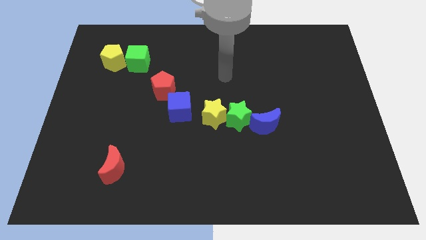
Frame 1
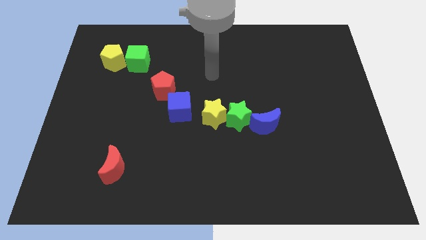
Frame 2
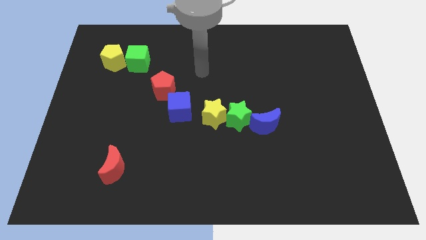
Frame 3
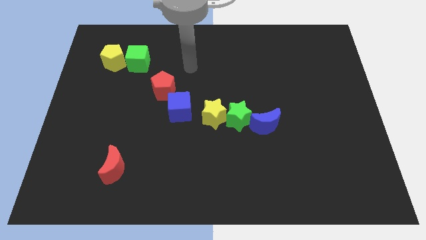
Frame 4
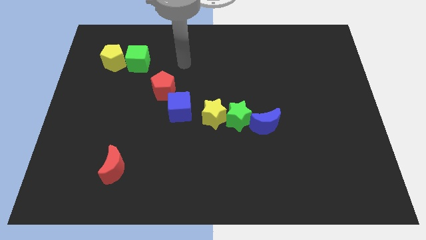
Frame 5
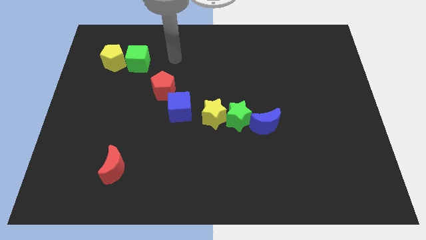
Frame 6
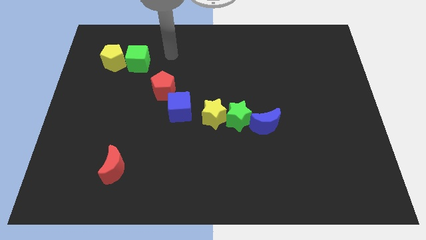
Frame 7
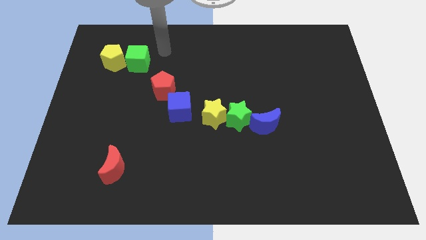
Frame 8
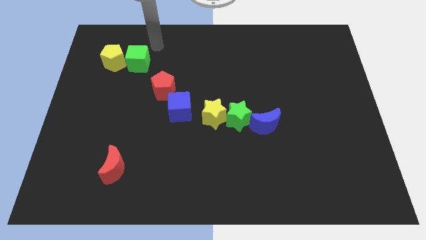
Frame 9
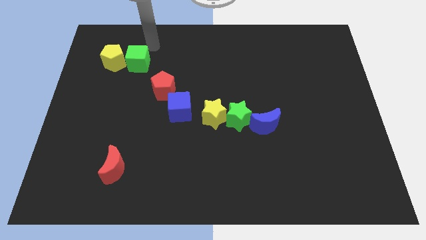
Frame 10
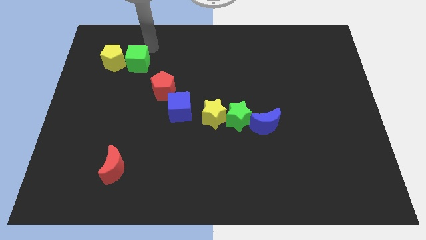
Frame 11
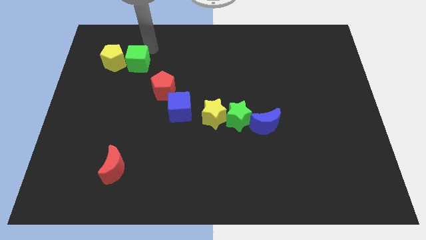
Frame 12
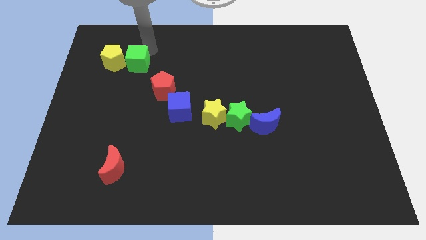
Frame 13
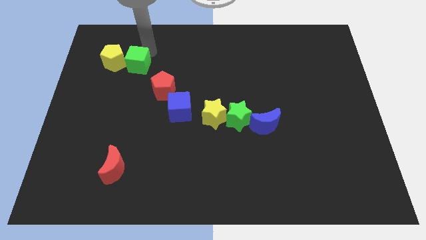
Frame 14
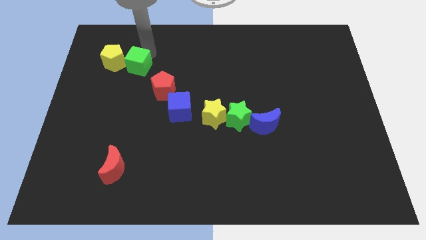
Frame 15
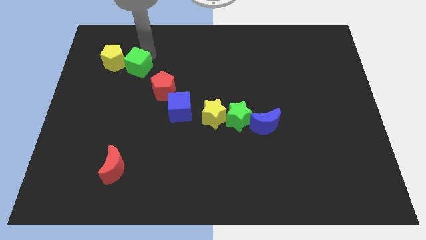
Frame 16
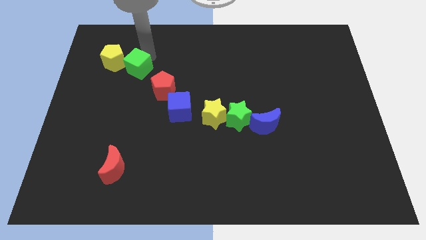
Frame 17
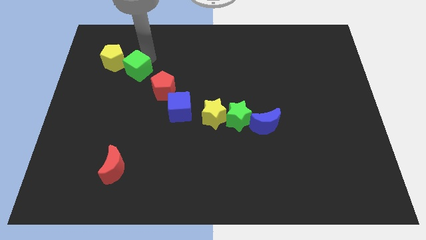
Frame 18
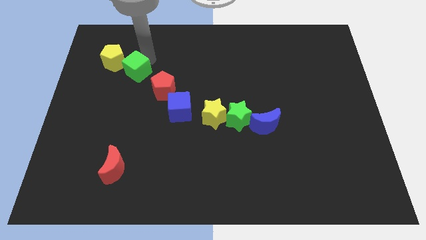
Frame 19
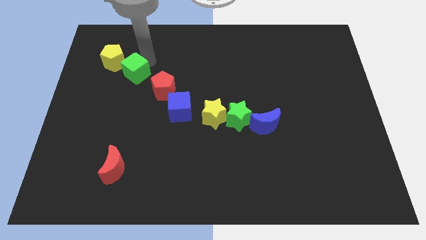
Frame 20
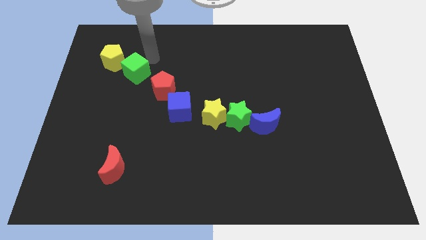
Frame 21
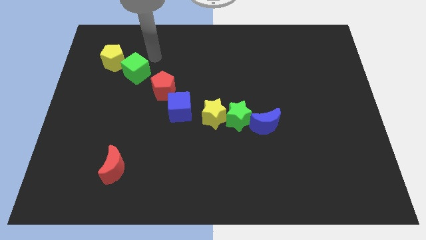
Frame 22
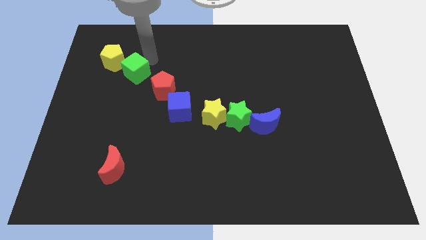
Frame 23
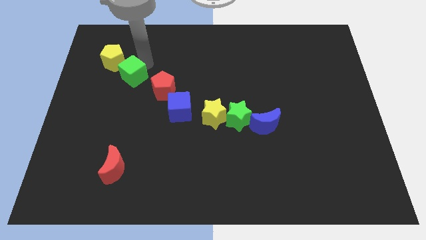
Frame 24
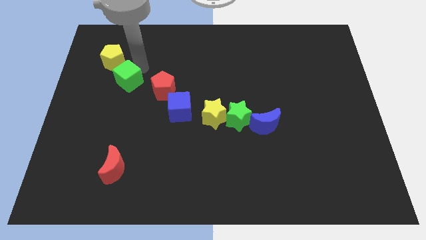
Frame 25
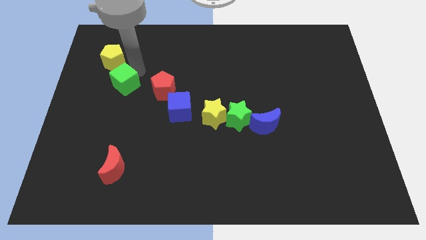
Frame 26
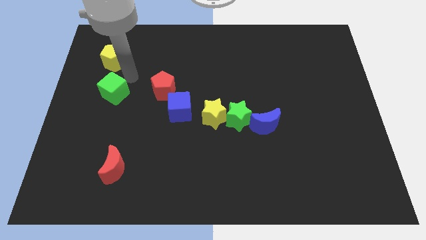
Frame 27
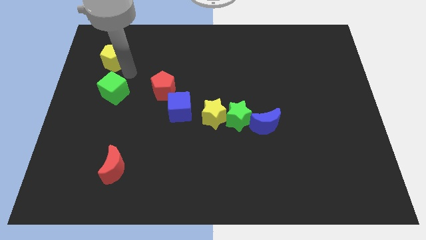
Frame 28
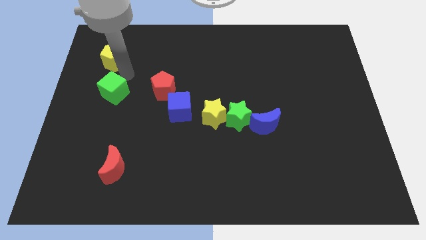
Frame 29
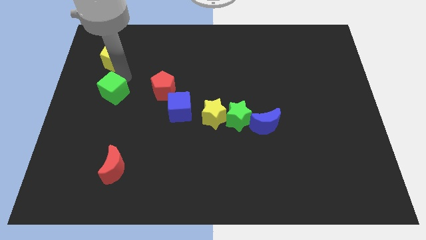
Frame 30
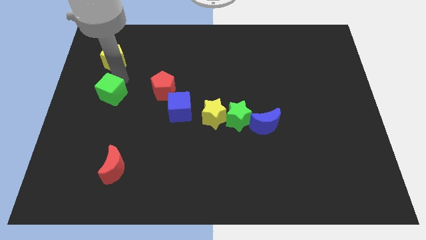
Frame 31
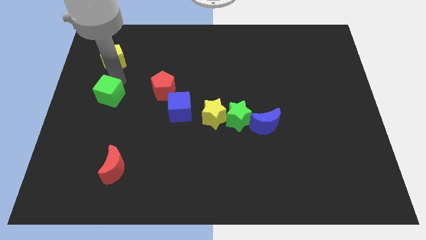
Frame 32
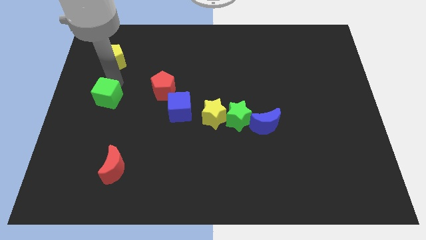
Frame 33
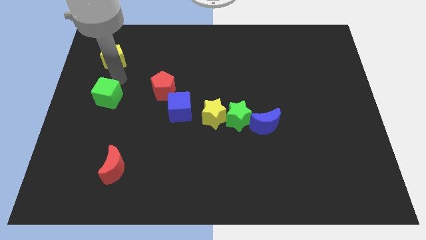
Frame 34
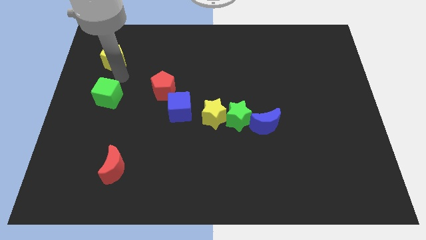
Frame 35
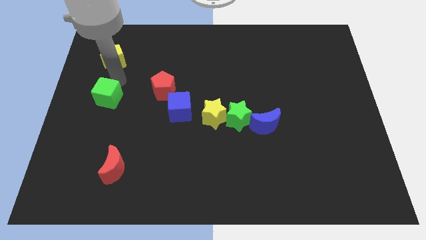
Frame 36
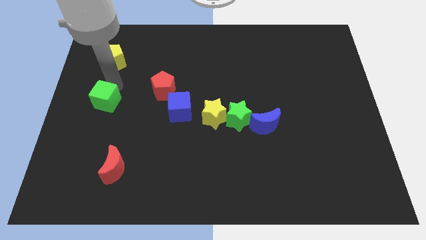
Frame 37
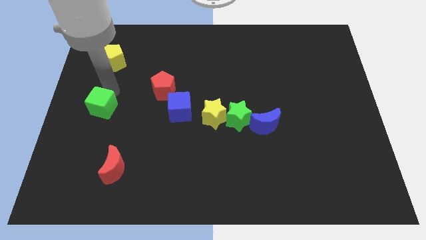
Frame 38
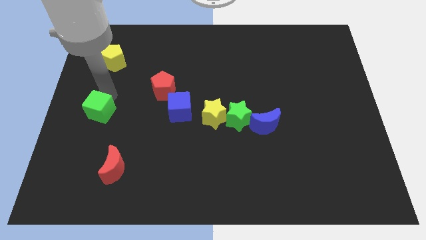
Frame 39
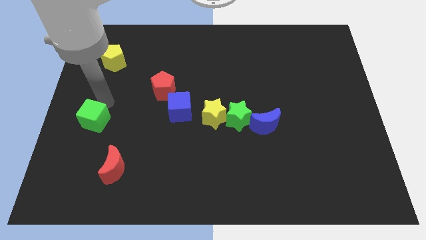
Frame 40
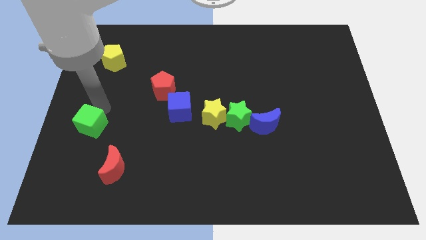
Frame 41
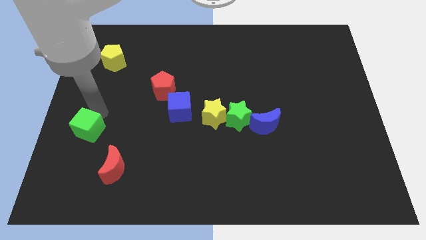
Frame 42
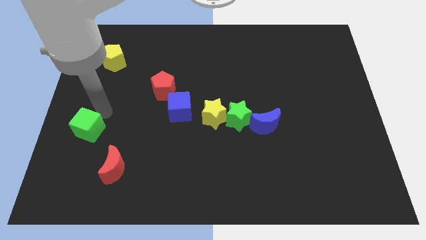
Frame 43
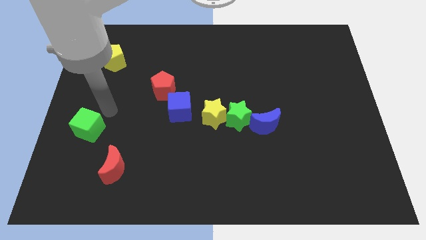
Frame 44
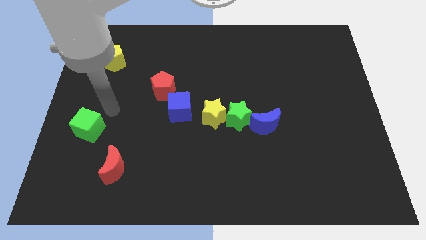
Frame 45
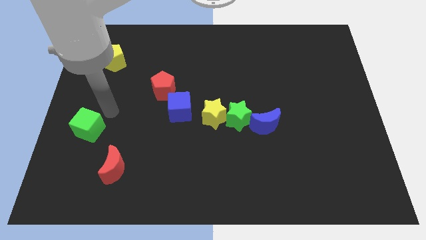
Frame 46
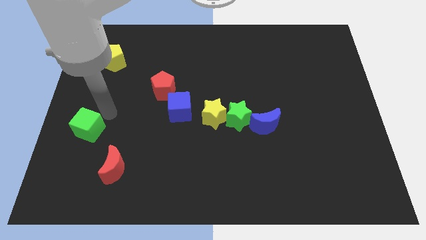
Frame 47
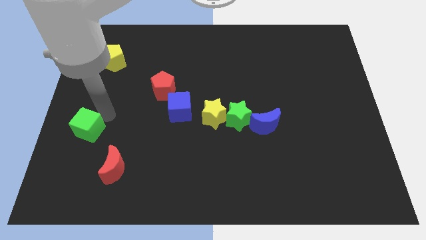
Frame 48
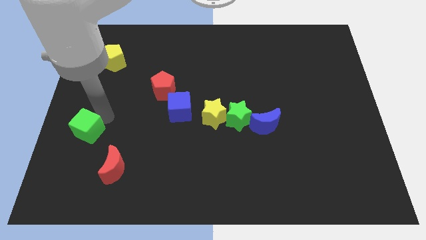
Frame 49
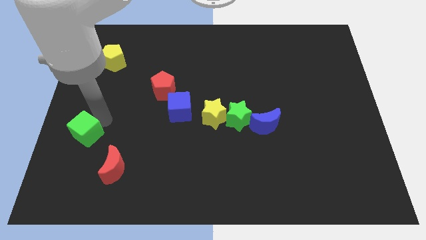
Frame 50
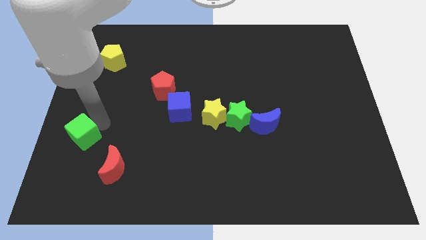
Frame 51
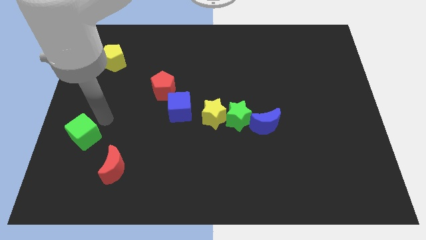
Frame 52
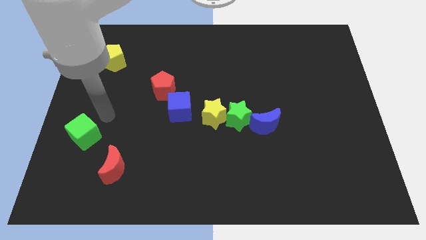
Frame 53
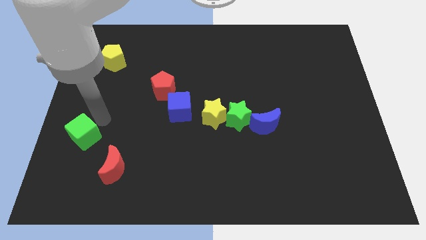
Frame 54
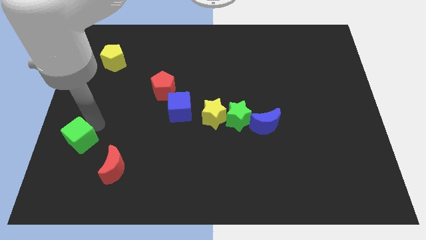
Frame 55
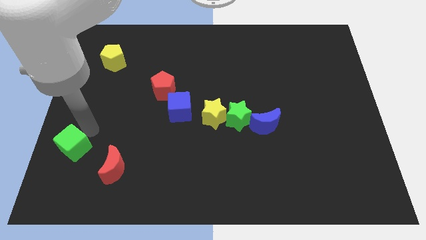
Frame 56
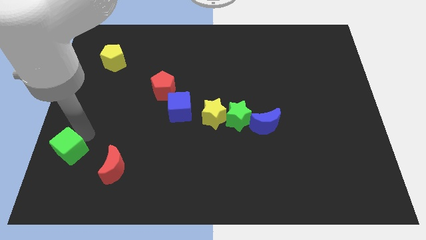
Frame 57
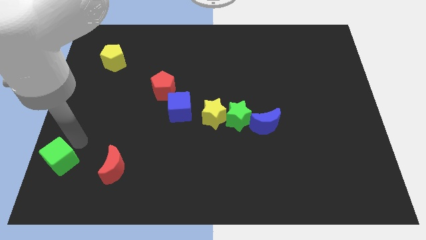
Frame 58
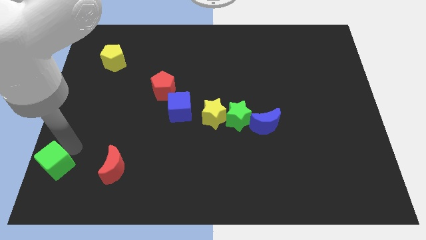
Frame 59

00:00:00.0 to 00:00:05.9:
put the green cube to the lower left corner

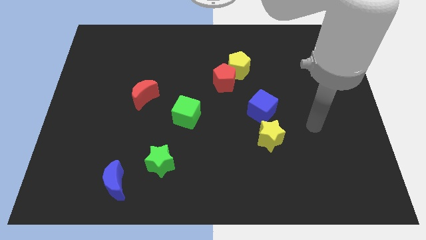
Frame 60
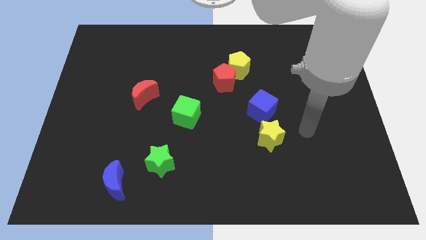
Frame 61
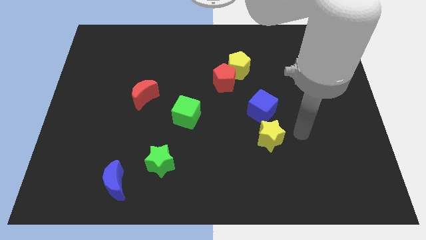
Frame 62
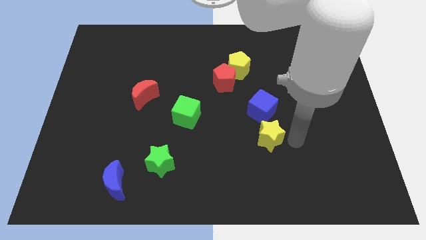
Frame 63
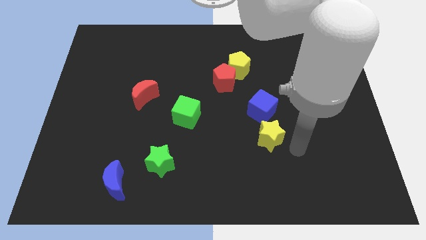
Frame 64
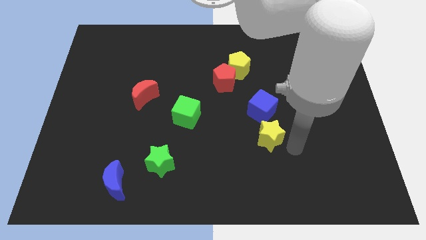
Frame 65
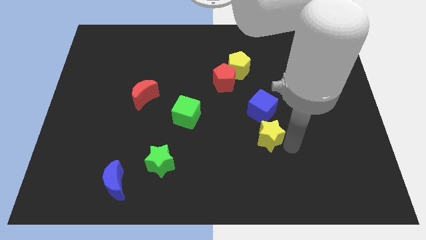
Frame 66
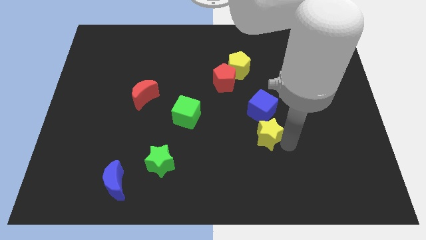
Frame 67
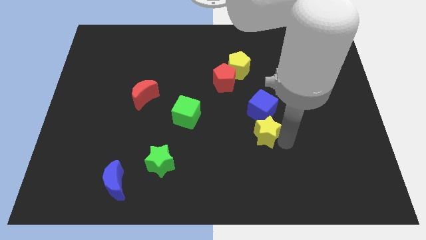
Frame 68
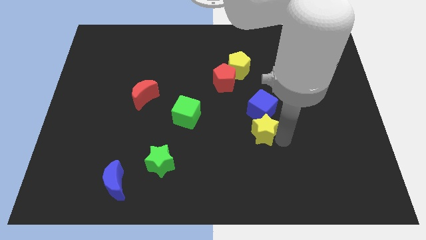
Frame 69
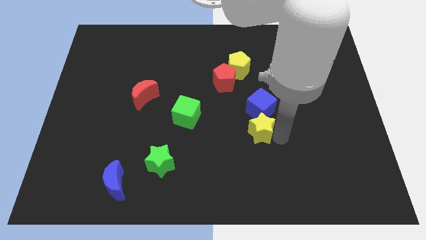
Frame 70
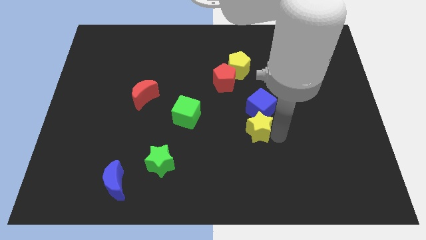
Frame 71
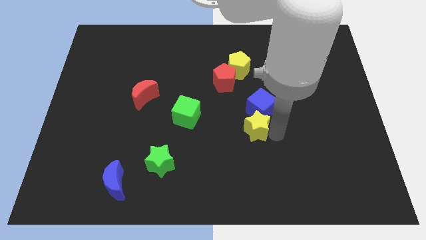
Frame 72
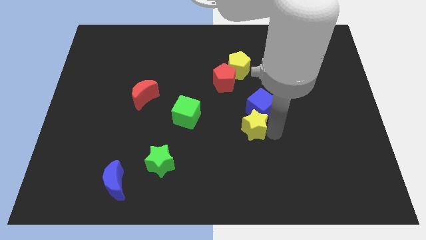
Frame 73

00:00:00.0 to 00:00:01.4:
put the yellow star to the middle of the board
